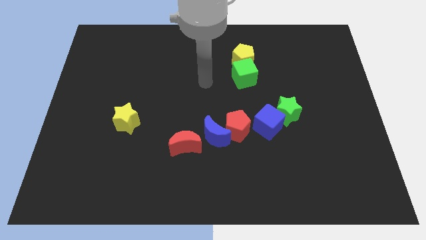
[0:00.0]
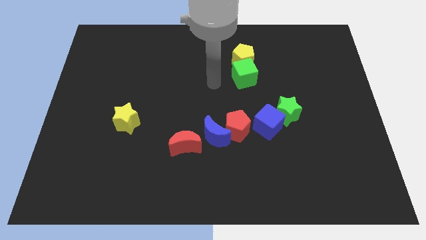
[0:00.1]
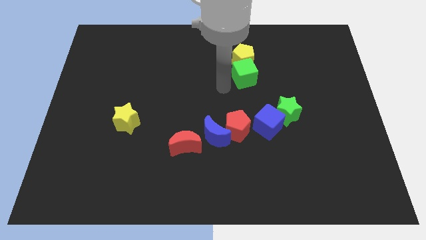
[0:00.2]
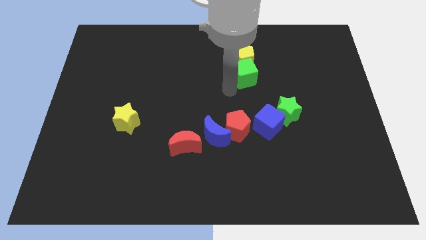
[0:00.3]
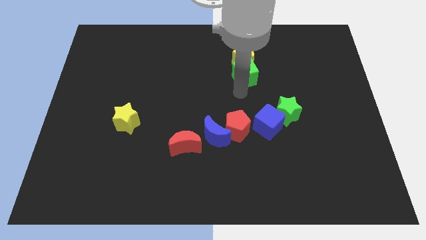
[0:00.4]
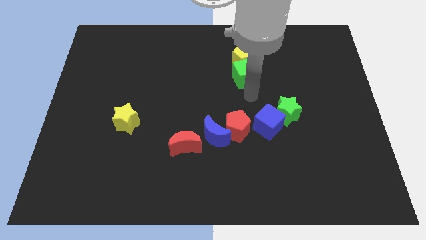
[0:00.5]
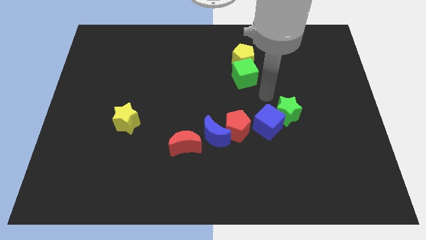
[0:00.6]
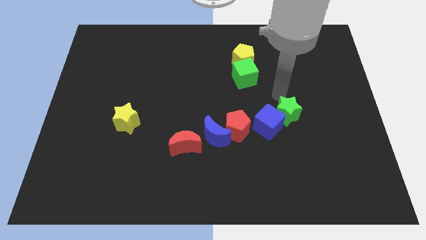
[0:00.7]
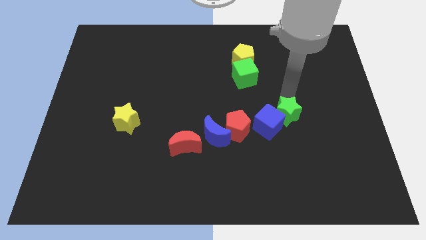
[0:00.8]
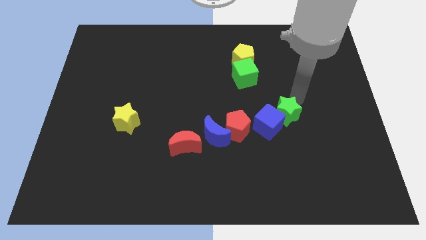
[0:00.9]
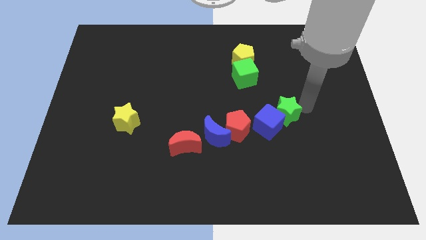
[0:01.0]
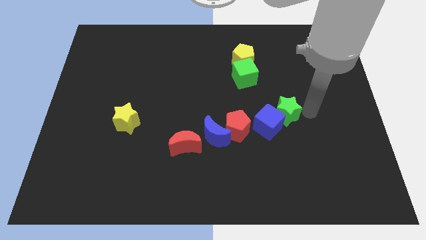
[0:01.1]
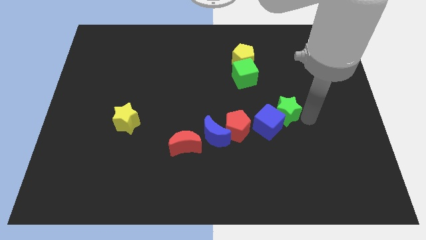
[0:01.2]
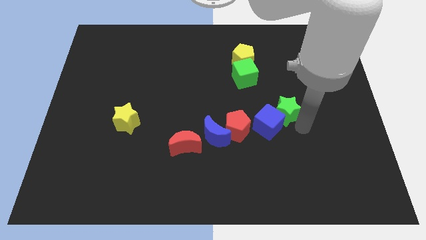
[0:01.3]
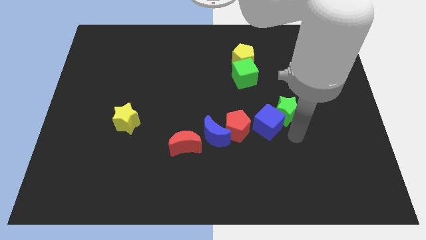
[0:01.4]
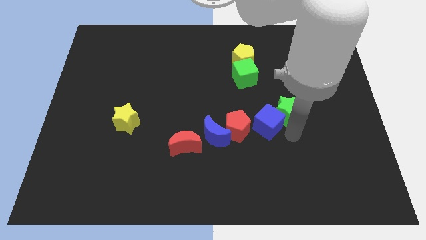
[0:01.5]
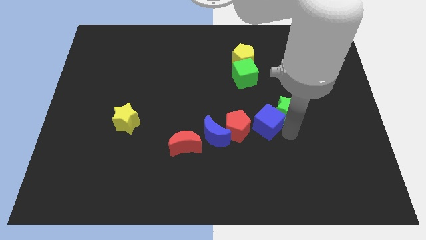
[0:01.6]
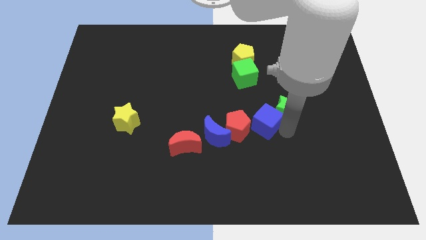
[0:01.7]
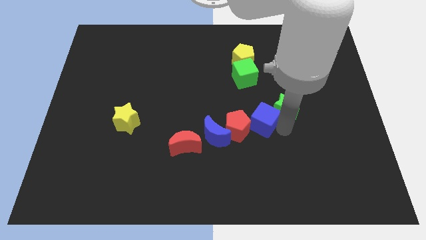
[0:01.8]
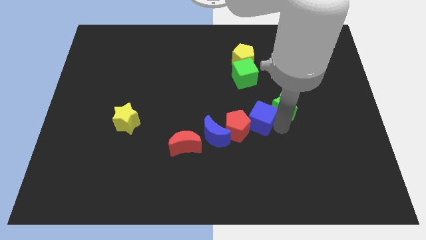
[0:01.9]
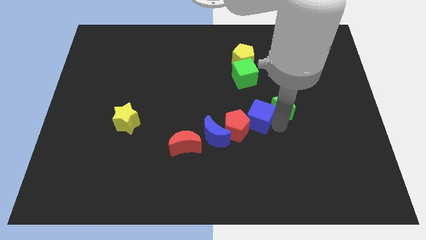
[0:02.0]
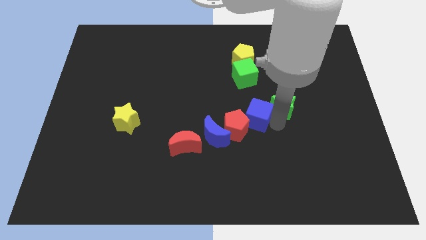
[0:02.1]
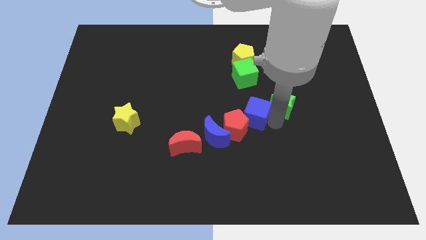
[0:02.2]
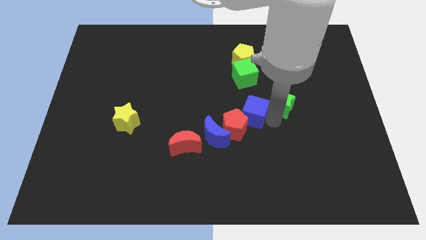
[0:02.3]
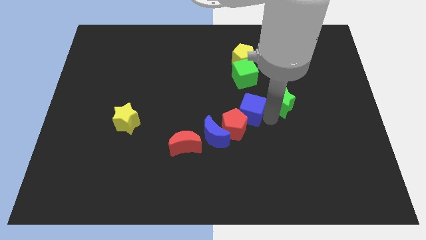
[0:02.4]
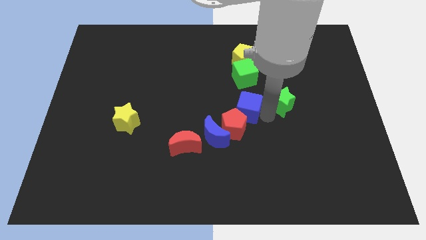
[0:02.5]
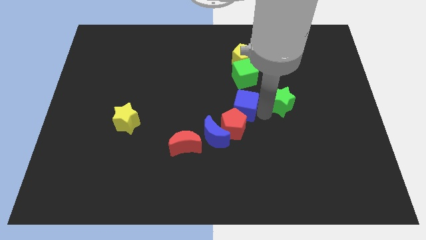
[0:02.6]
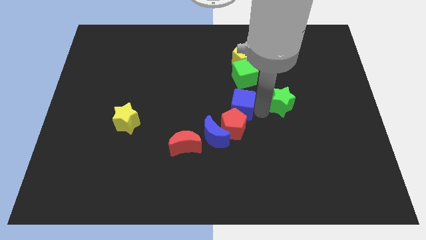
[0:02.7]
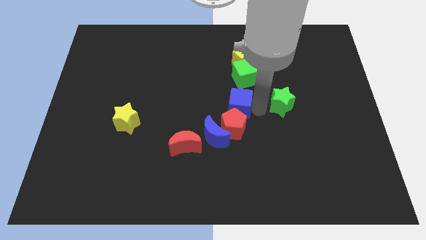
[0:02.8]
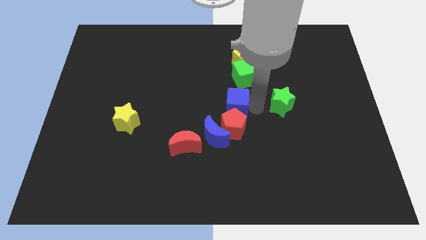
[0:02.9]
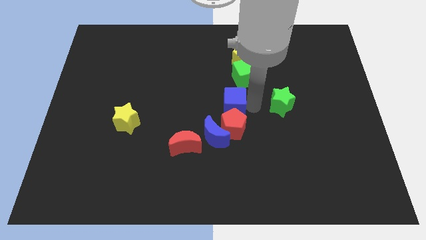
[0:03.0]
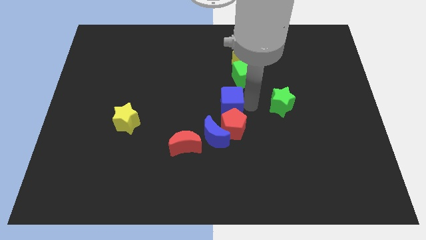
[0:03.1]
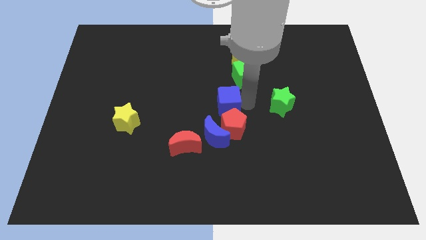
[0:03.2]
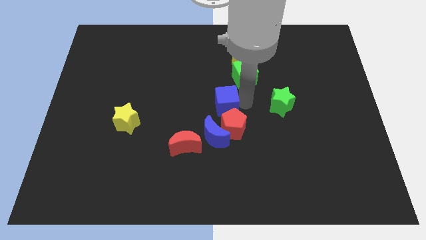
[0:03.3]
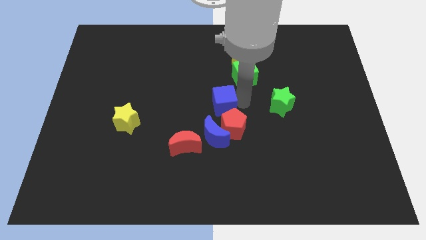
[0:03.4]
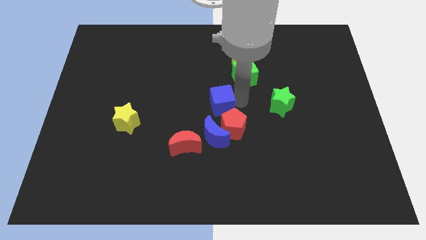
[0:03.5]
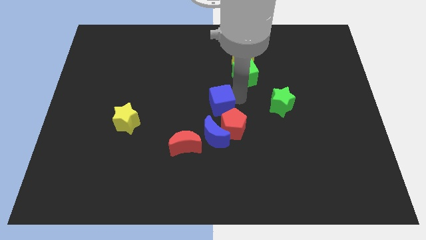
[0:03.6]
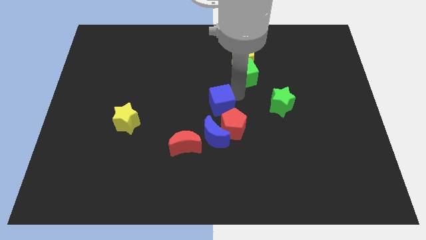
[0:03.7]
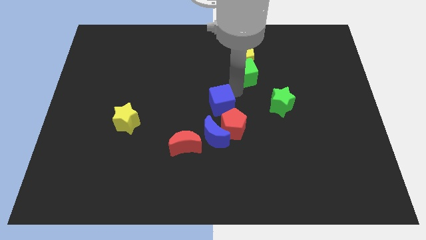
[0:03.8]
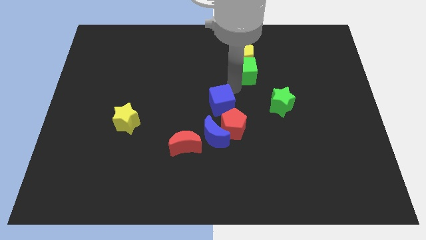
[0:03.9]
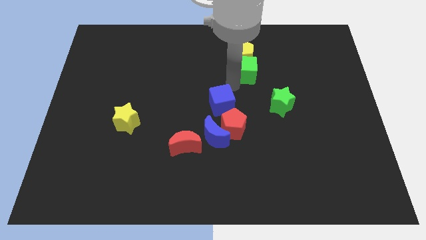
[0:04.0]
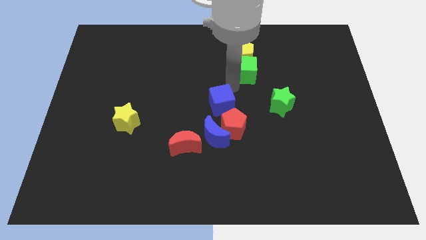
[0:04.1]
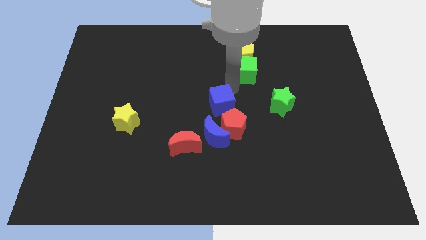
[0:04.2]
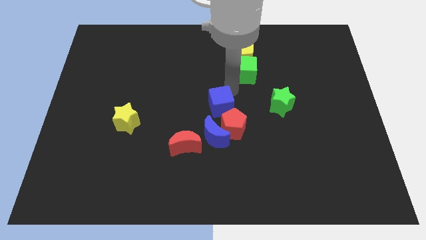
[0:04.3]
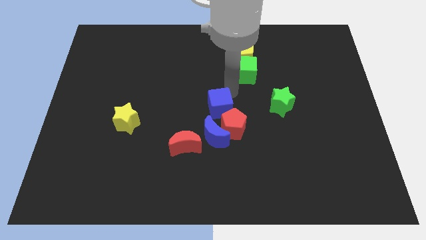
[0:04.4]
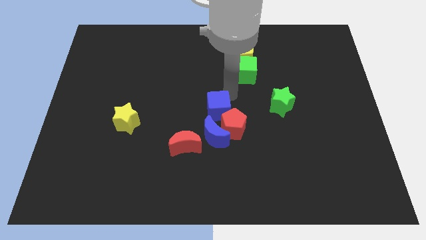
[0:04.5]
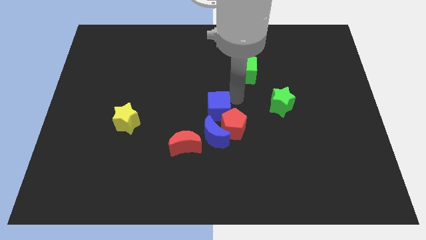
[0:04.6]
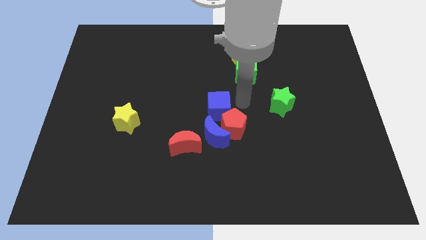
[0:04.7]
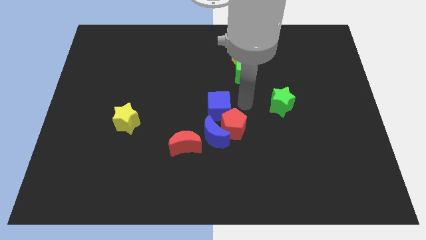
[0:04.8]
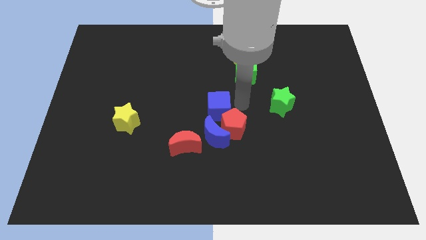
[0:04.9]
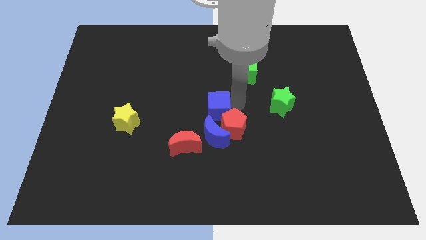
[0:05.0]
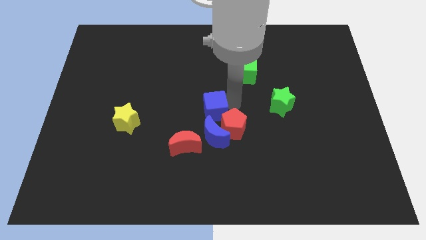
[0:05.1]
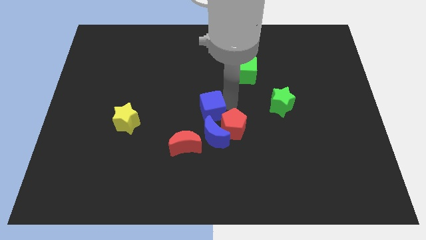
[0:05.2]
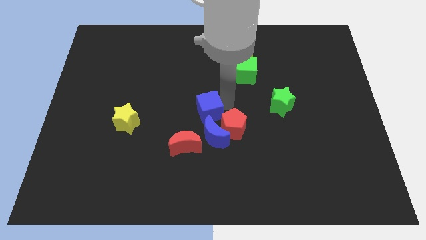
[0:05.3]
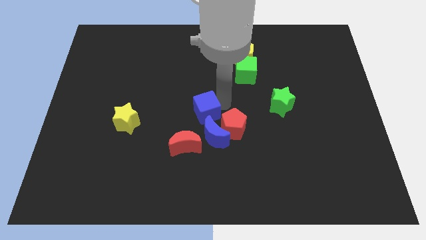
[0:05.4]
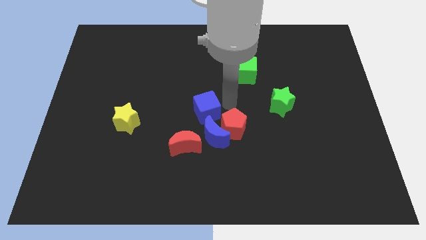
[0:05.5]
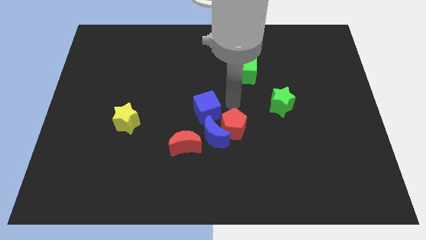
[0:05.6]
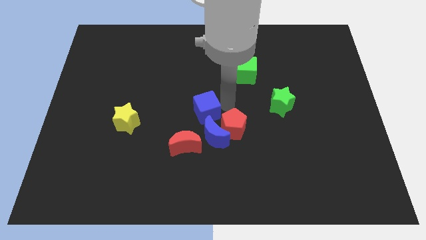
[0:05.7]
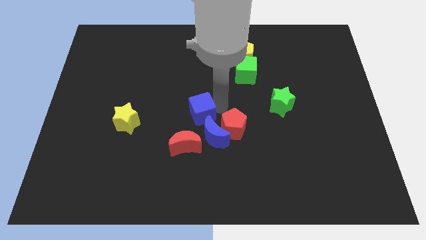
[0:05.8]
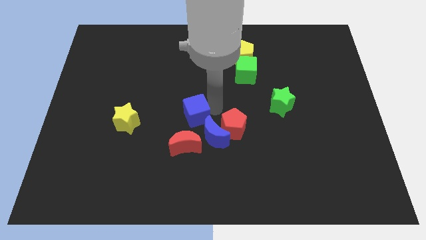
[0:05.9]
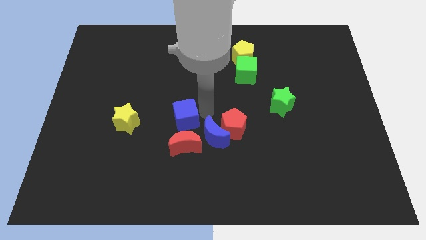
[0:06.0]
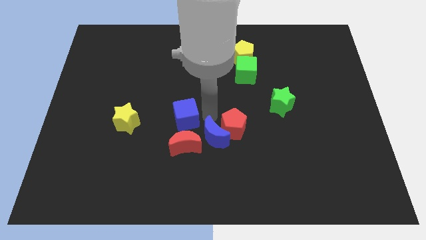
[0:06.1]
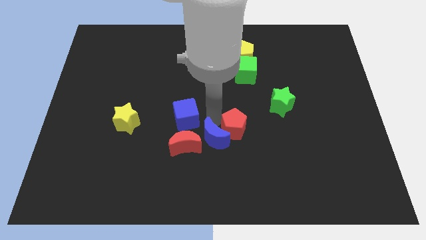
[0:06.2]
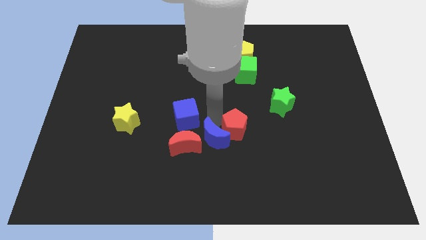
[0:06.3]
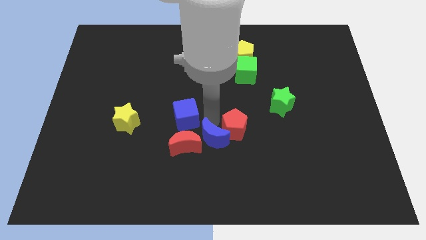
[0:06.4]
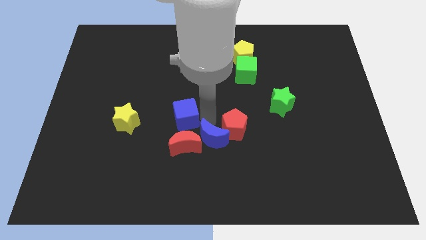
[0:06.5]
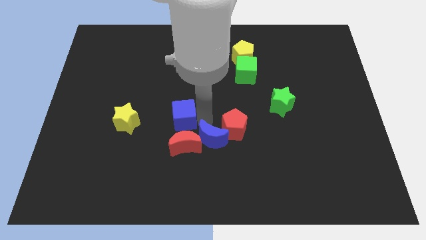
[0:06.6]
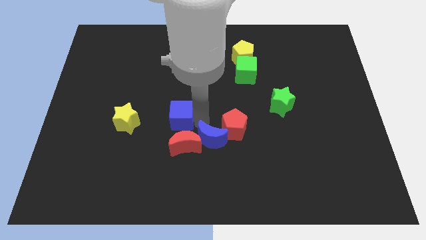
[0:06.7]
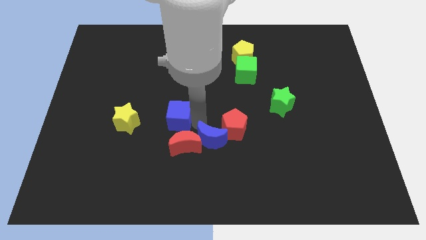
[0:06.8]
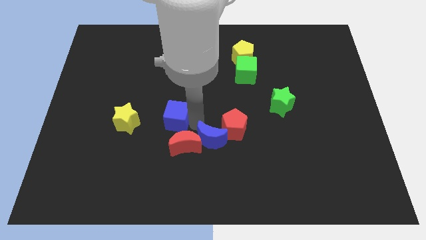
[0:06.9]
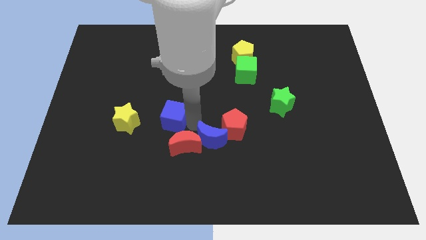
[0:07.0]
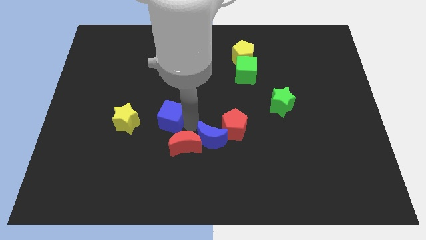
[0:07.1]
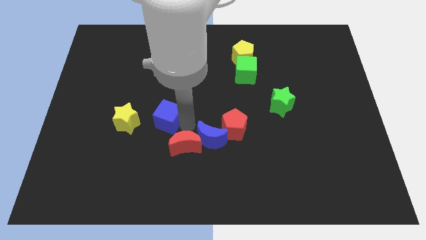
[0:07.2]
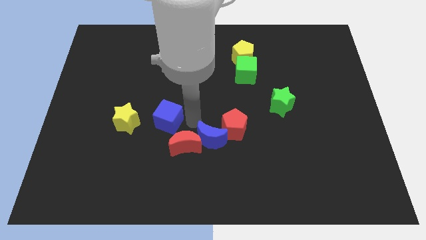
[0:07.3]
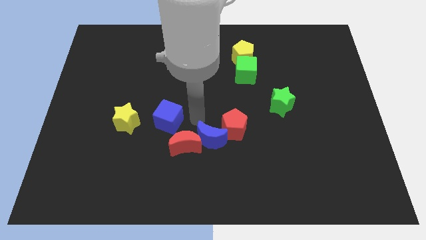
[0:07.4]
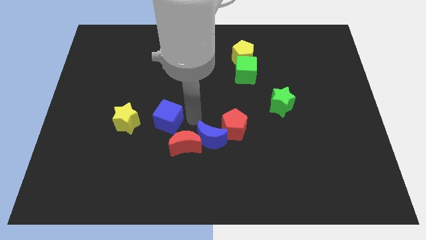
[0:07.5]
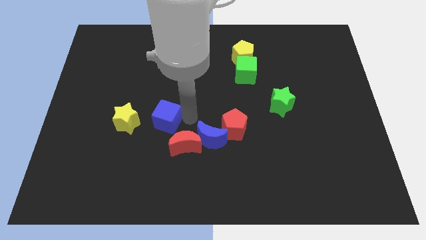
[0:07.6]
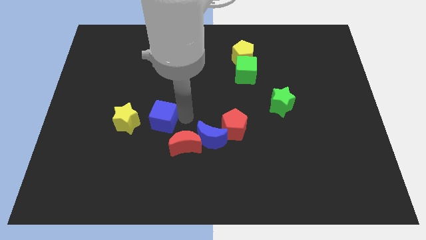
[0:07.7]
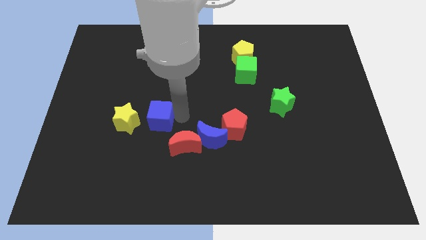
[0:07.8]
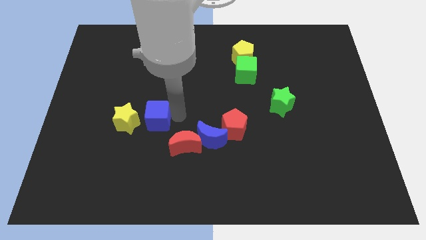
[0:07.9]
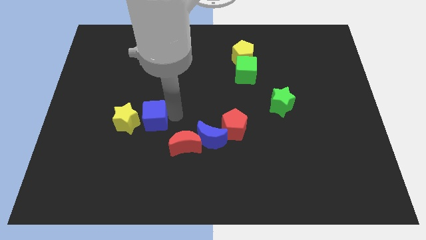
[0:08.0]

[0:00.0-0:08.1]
put the blue cube towards the yellow star
